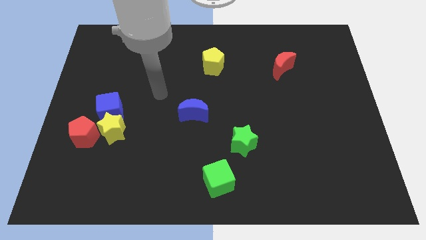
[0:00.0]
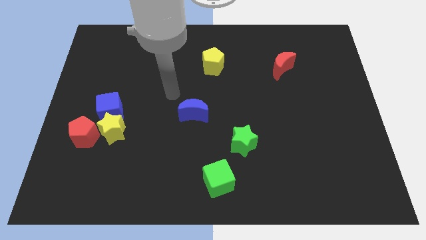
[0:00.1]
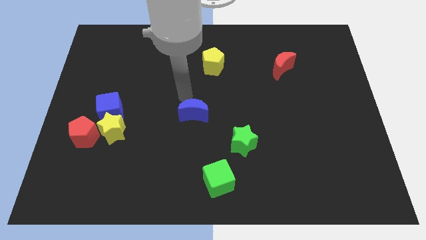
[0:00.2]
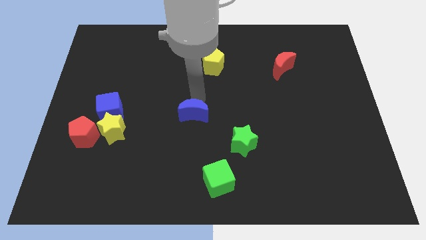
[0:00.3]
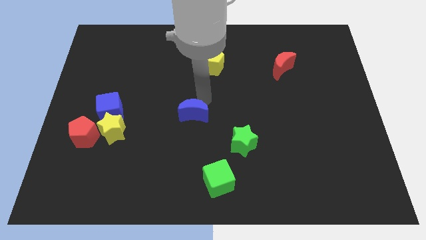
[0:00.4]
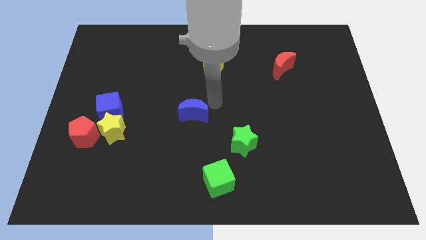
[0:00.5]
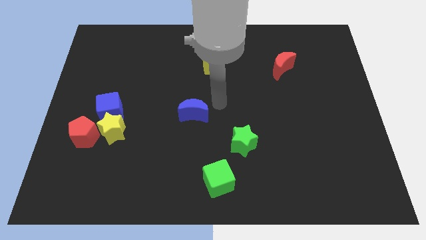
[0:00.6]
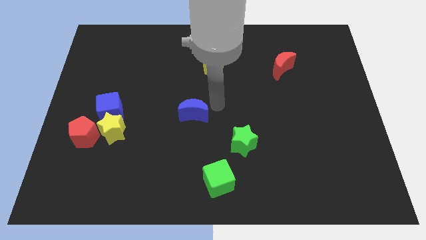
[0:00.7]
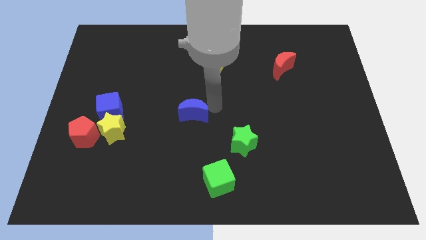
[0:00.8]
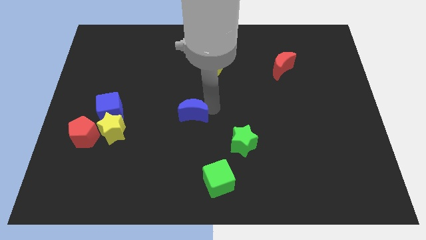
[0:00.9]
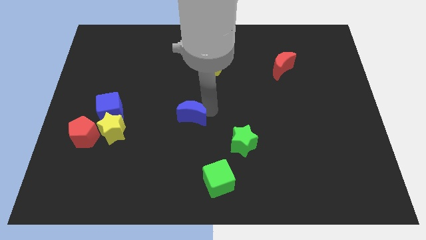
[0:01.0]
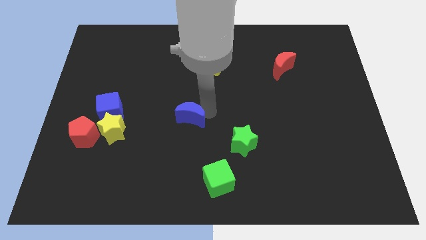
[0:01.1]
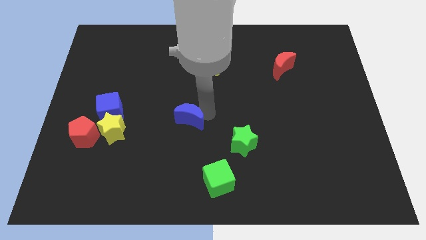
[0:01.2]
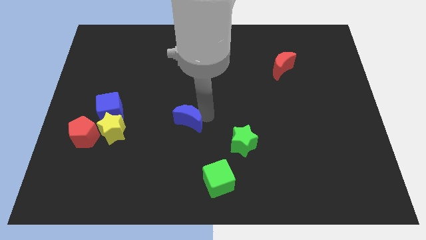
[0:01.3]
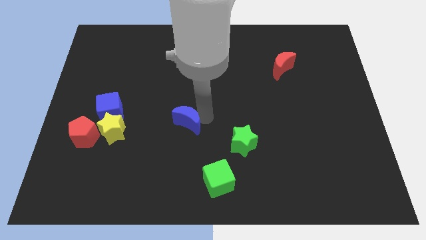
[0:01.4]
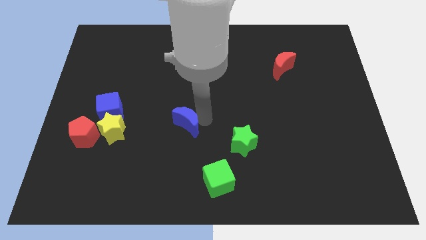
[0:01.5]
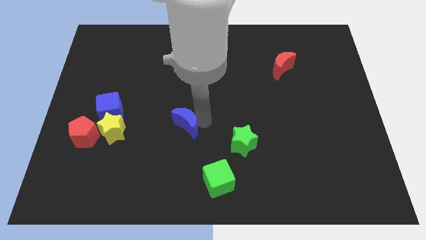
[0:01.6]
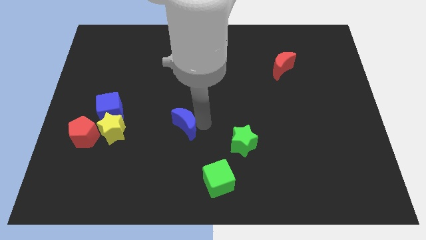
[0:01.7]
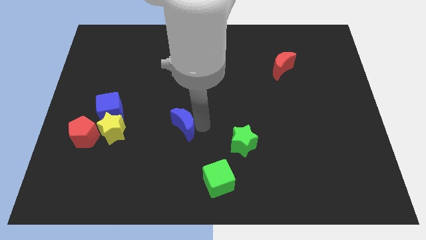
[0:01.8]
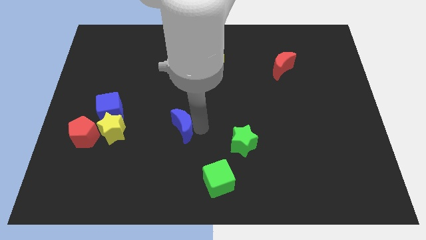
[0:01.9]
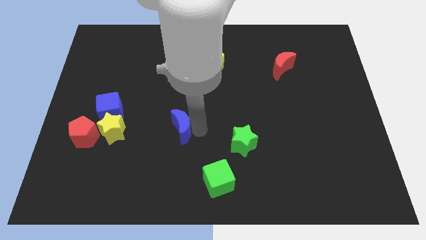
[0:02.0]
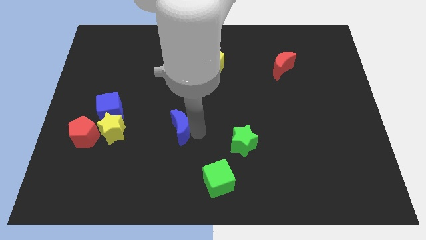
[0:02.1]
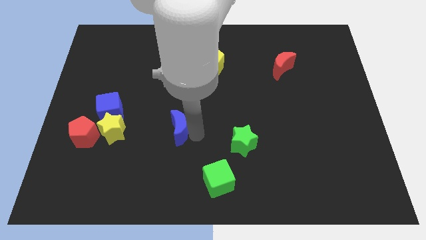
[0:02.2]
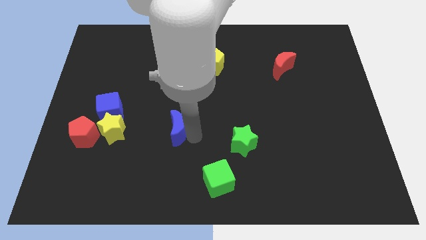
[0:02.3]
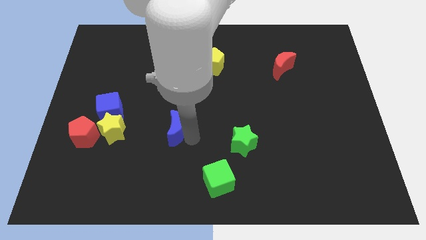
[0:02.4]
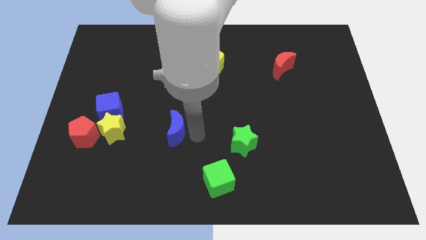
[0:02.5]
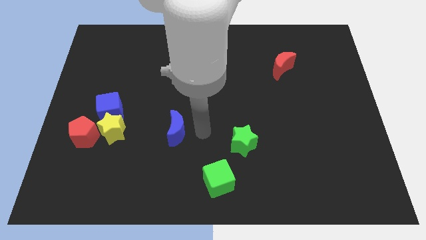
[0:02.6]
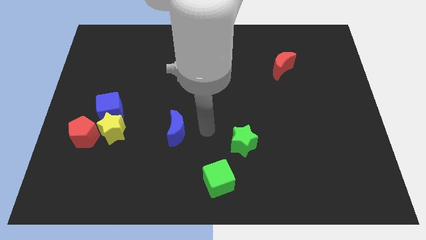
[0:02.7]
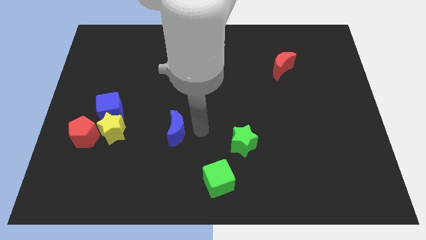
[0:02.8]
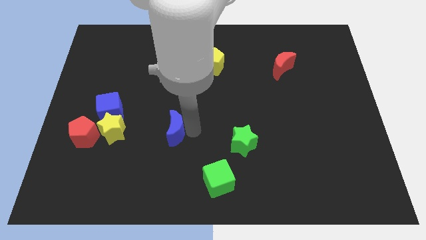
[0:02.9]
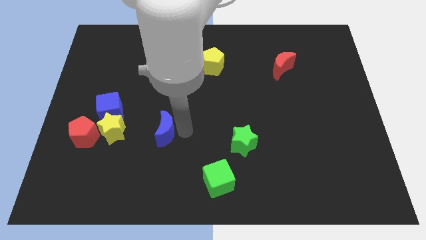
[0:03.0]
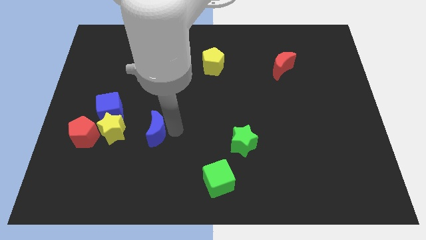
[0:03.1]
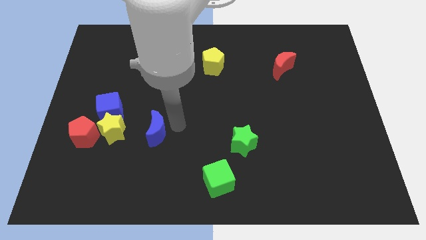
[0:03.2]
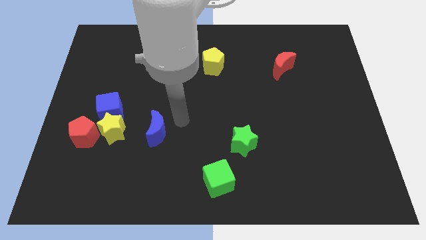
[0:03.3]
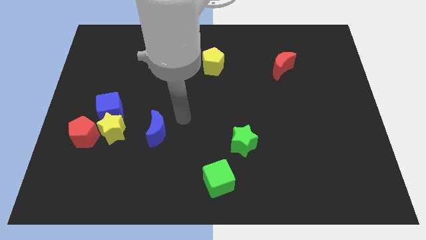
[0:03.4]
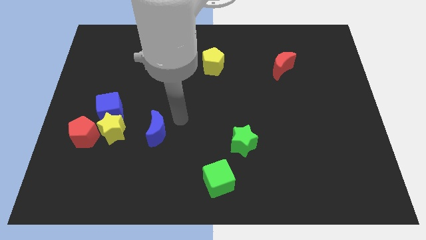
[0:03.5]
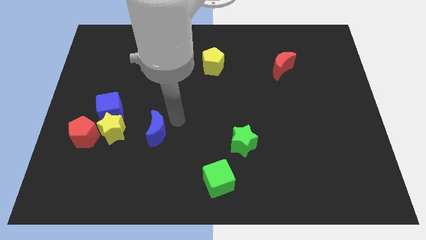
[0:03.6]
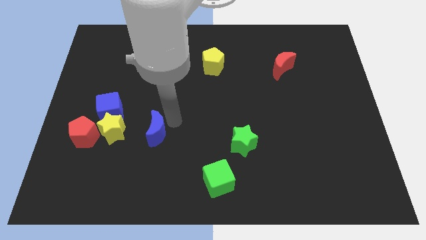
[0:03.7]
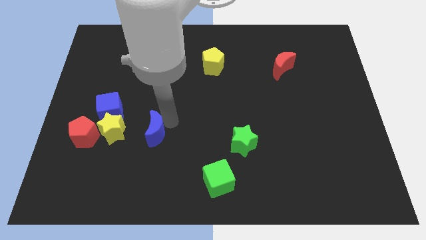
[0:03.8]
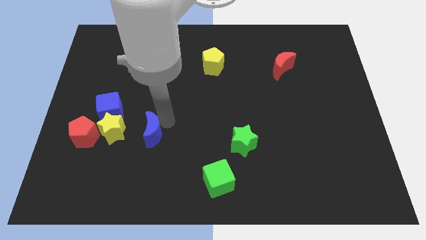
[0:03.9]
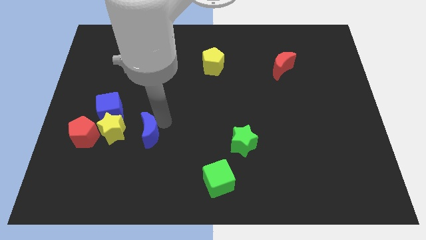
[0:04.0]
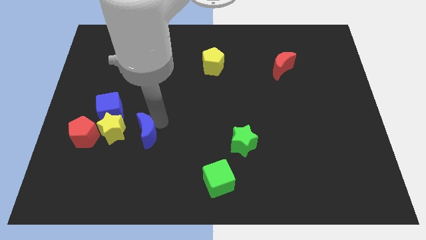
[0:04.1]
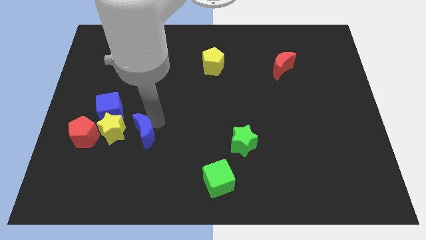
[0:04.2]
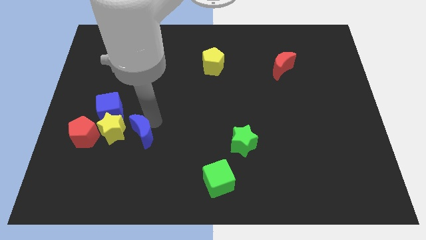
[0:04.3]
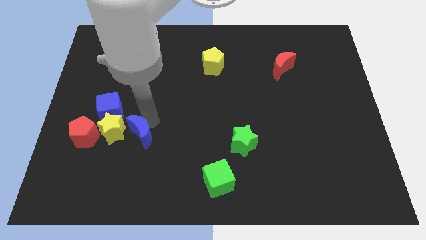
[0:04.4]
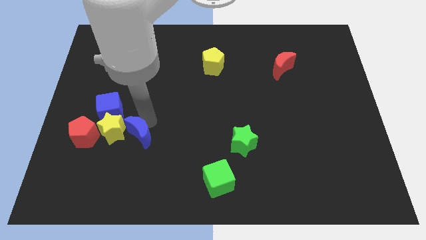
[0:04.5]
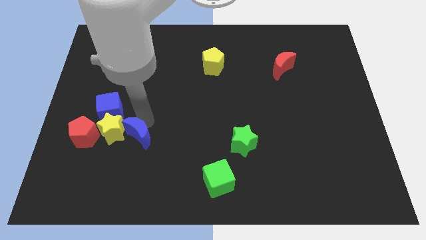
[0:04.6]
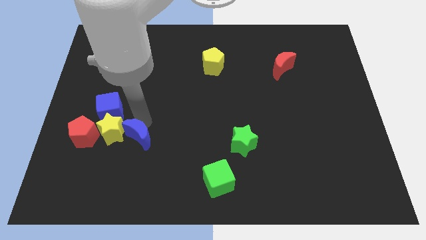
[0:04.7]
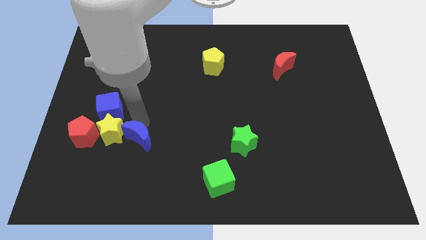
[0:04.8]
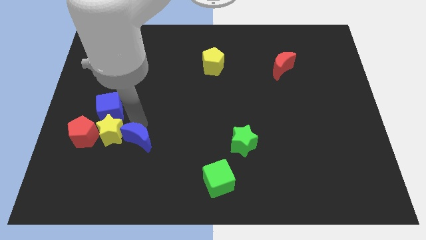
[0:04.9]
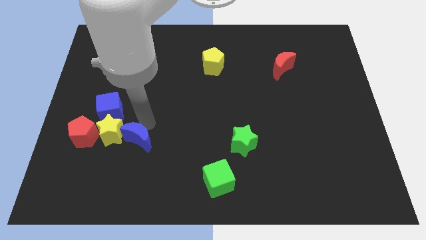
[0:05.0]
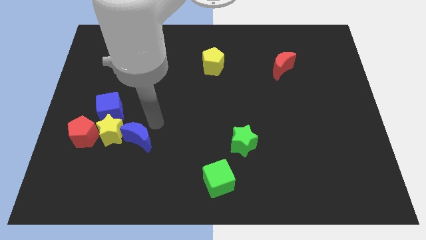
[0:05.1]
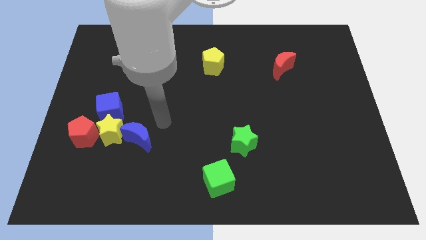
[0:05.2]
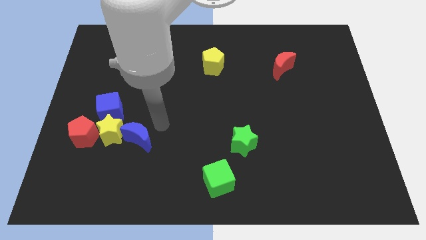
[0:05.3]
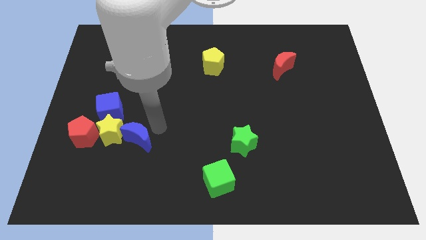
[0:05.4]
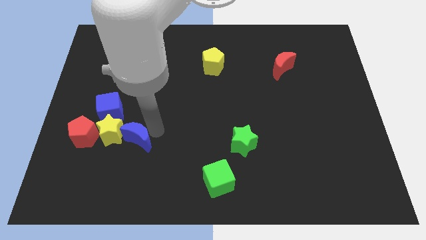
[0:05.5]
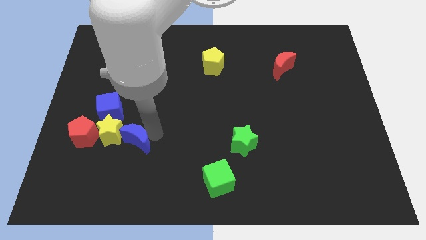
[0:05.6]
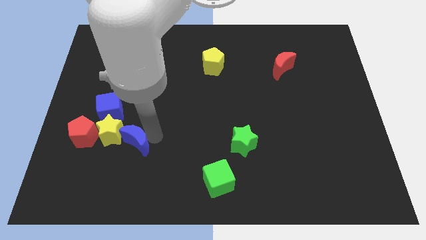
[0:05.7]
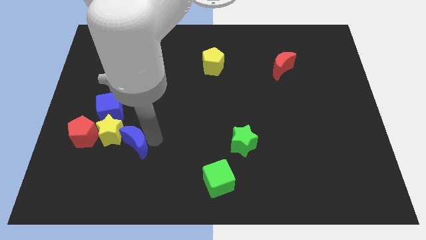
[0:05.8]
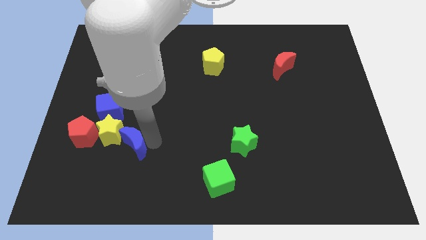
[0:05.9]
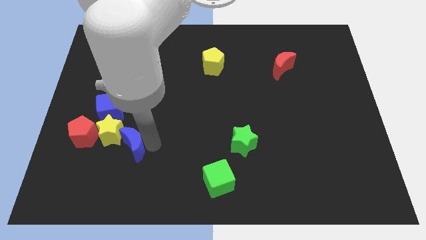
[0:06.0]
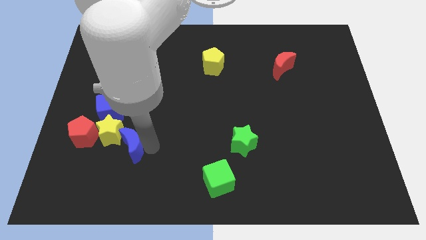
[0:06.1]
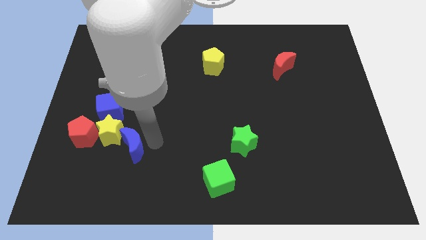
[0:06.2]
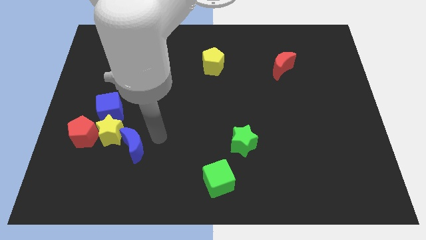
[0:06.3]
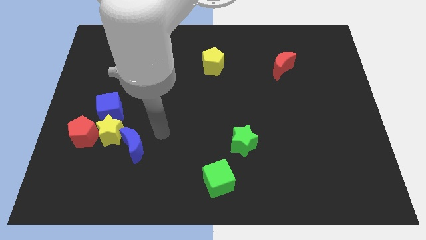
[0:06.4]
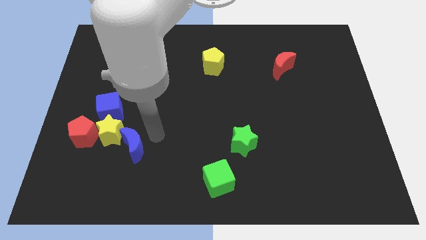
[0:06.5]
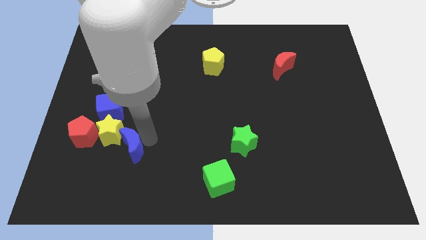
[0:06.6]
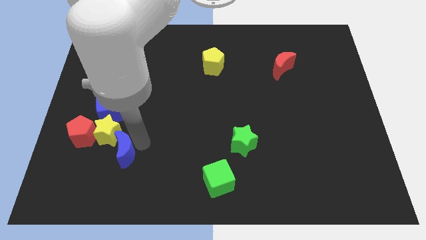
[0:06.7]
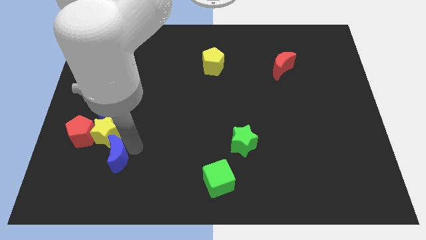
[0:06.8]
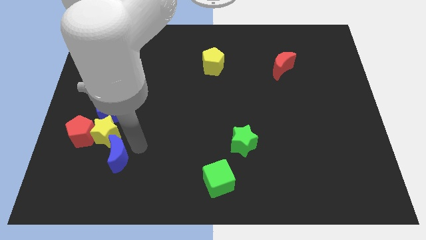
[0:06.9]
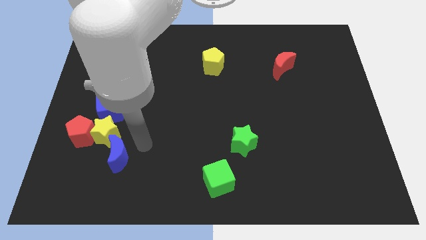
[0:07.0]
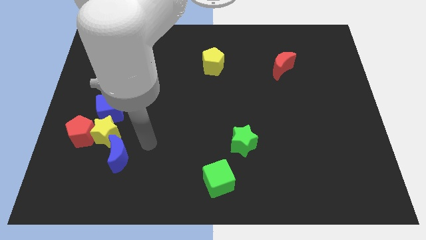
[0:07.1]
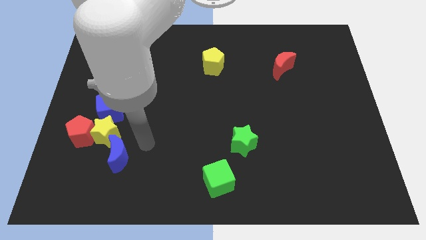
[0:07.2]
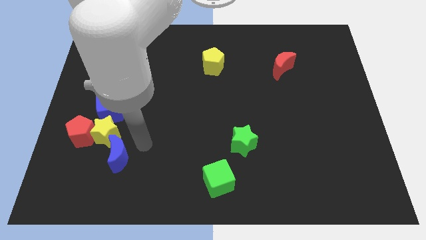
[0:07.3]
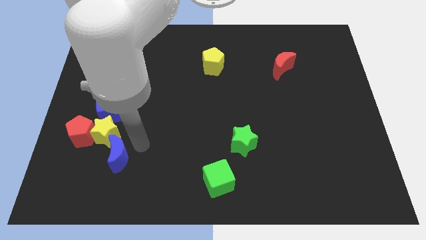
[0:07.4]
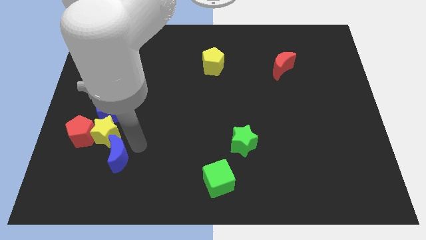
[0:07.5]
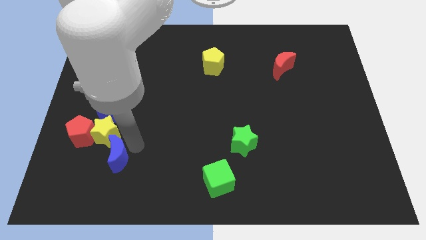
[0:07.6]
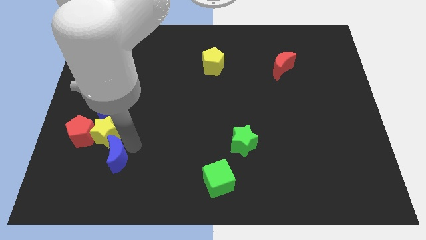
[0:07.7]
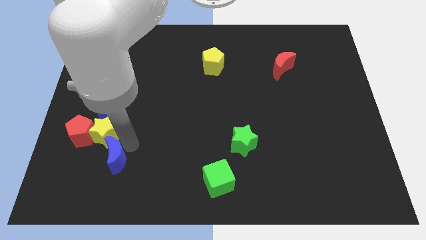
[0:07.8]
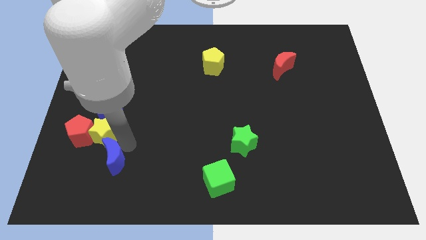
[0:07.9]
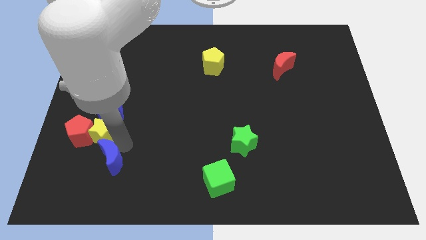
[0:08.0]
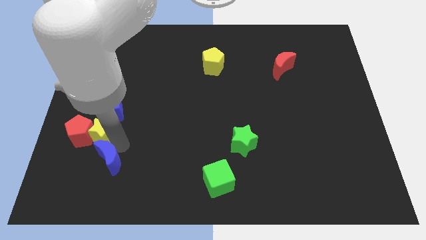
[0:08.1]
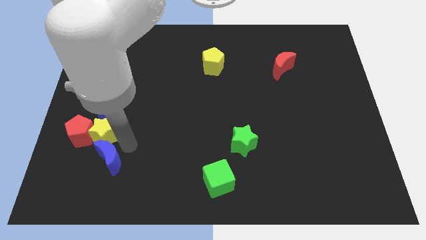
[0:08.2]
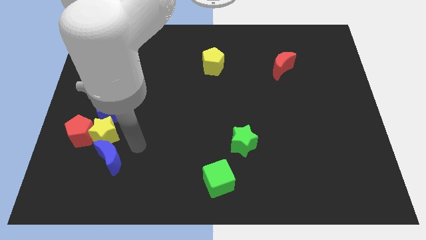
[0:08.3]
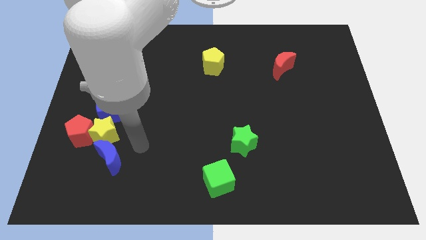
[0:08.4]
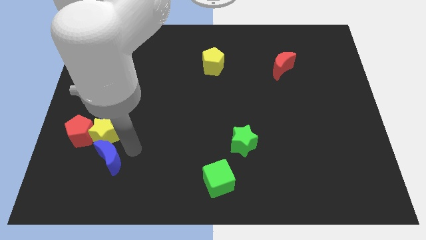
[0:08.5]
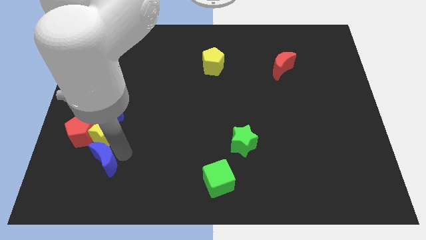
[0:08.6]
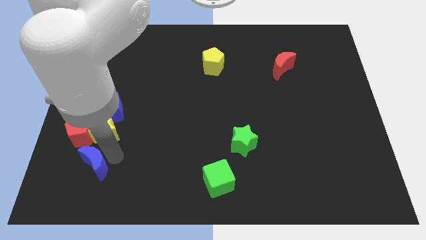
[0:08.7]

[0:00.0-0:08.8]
put the blue moon to the bottom of the red pentagon
